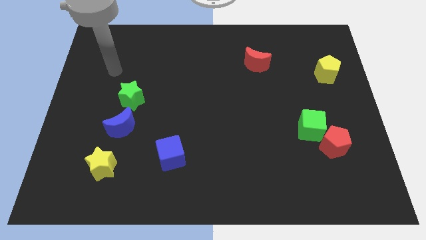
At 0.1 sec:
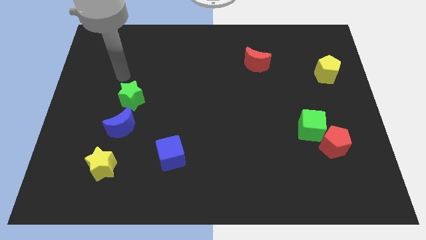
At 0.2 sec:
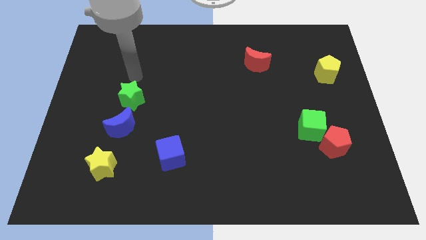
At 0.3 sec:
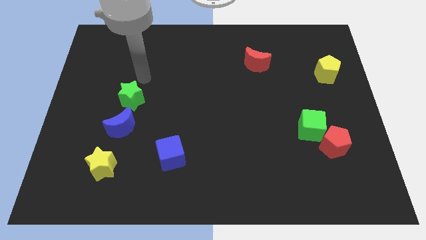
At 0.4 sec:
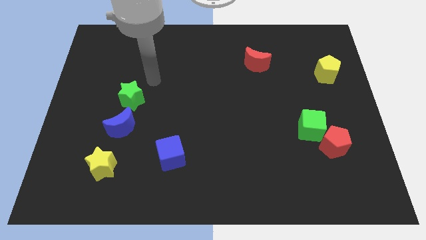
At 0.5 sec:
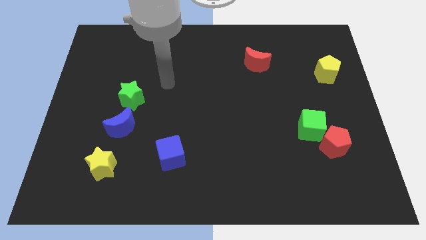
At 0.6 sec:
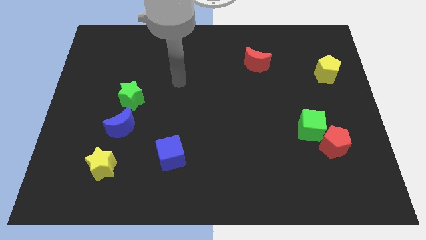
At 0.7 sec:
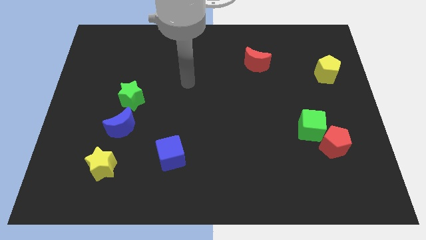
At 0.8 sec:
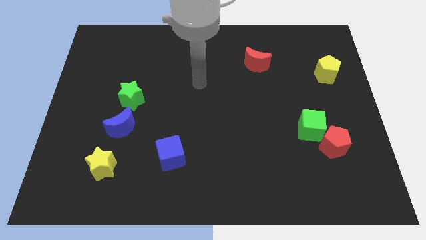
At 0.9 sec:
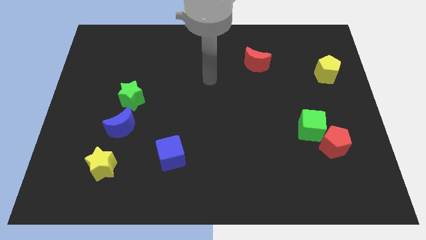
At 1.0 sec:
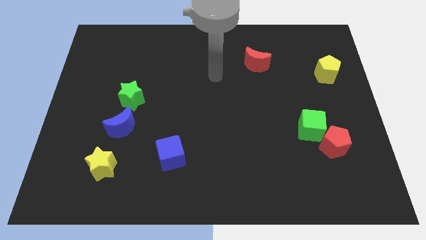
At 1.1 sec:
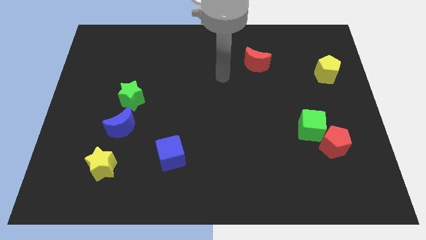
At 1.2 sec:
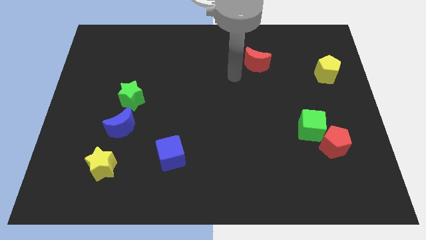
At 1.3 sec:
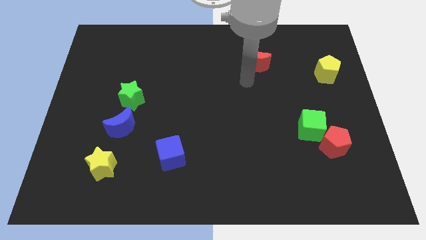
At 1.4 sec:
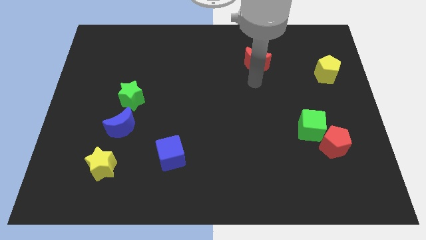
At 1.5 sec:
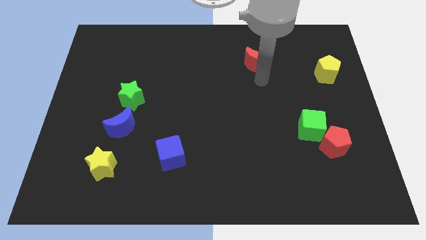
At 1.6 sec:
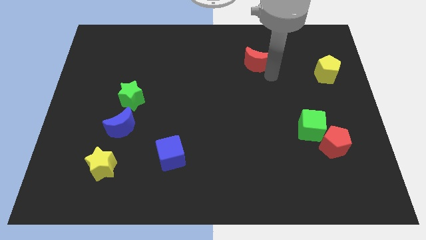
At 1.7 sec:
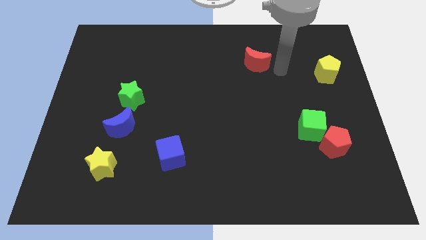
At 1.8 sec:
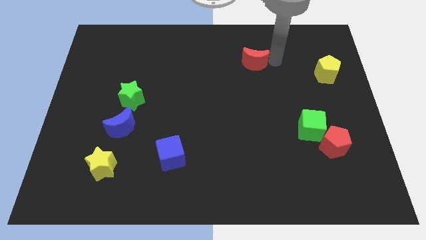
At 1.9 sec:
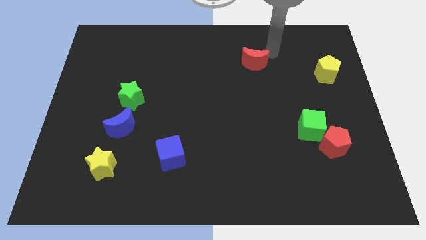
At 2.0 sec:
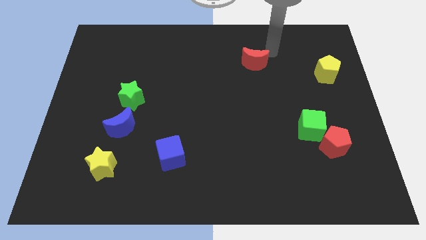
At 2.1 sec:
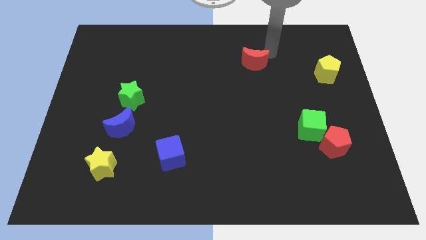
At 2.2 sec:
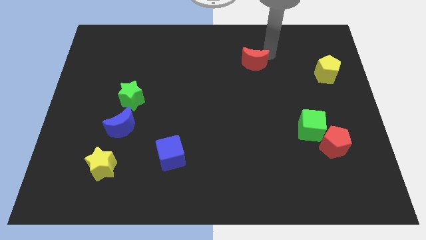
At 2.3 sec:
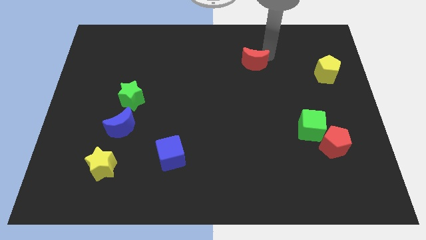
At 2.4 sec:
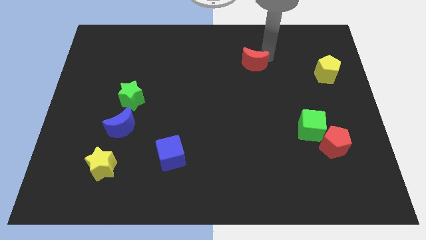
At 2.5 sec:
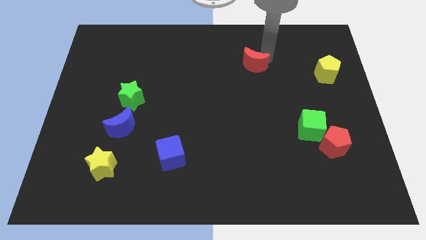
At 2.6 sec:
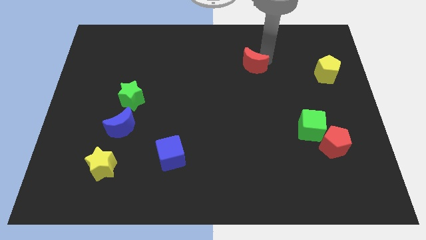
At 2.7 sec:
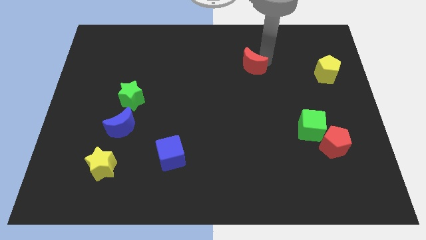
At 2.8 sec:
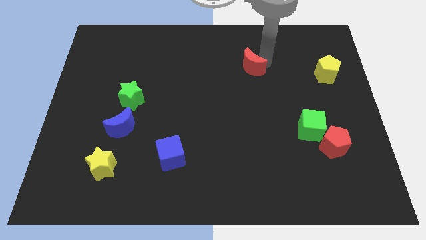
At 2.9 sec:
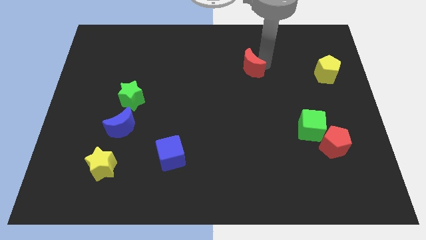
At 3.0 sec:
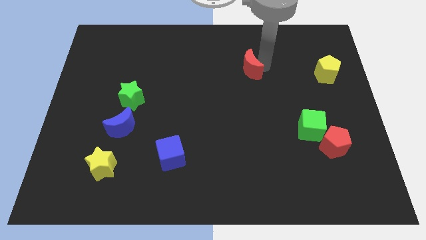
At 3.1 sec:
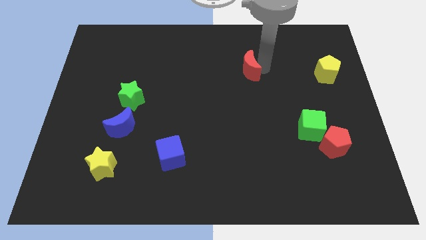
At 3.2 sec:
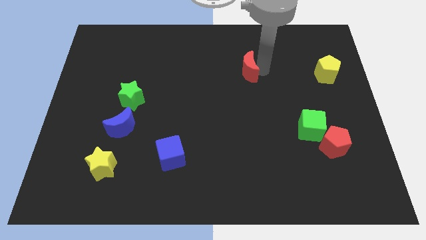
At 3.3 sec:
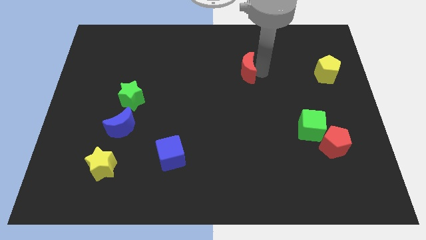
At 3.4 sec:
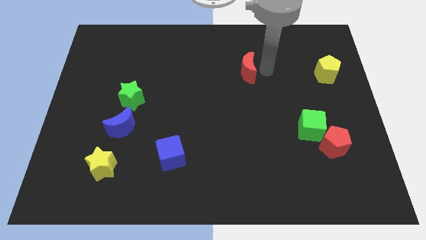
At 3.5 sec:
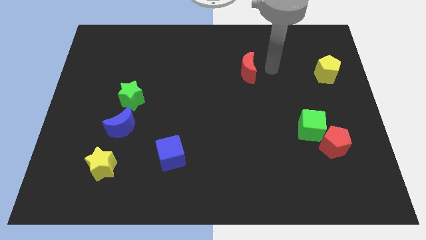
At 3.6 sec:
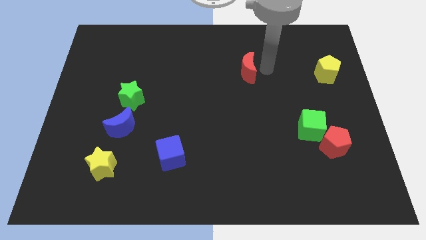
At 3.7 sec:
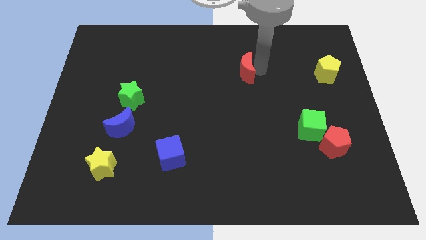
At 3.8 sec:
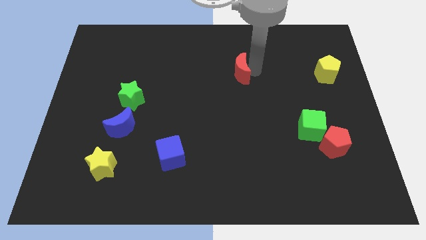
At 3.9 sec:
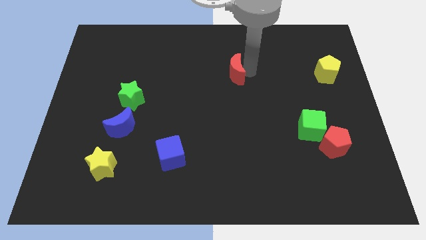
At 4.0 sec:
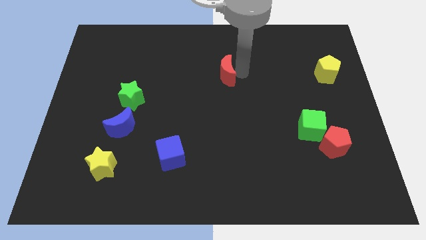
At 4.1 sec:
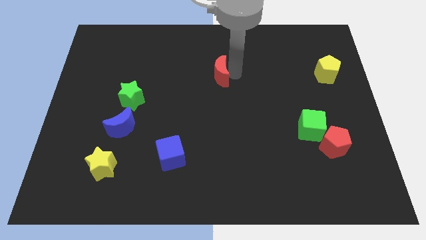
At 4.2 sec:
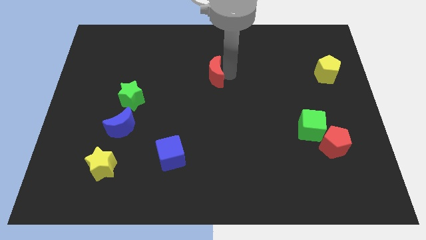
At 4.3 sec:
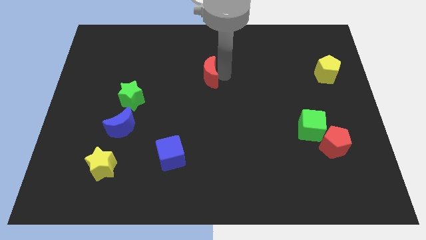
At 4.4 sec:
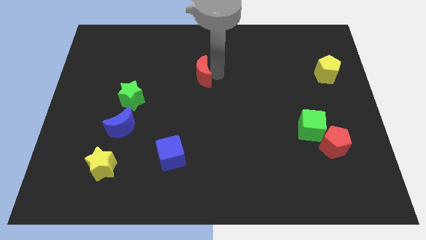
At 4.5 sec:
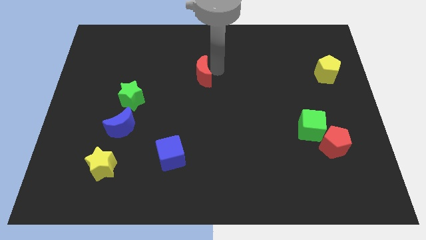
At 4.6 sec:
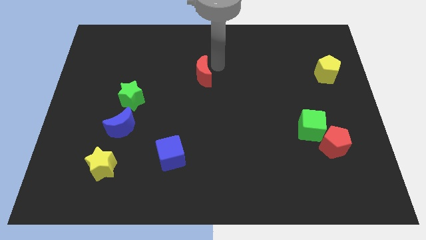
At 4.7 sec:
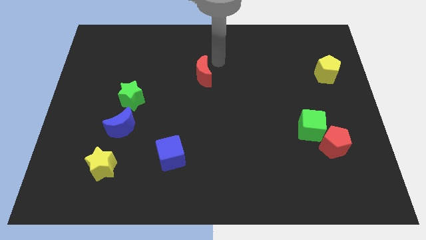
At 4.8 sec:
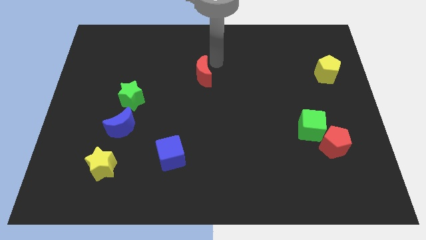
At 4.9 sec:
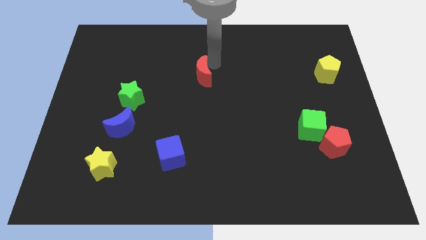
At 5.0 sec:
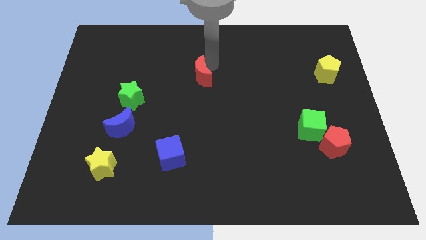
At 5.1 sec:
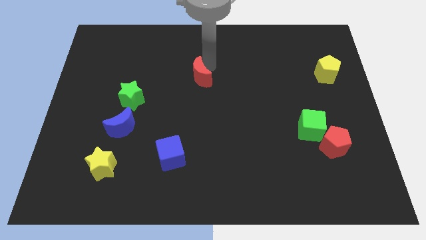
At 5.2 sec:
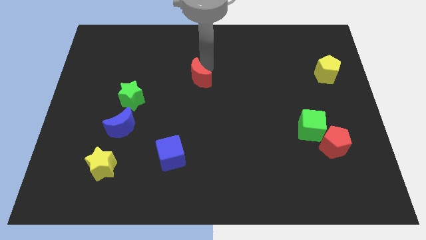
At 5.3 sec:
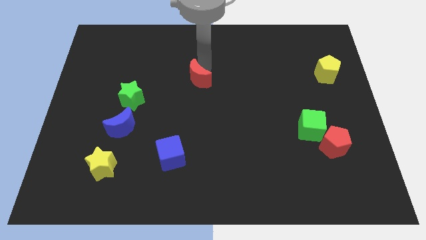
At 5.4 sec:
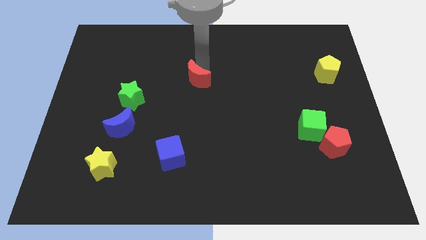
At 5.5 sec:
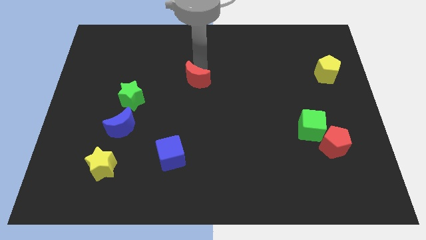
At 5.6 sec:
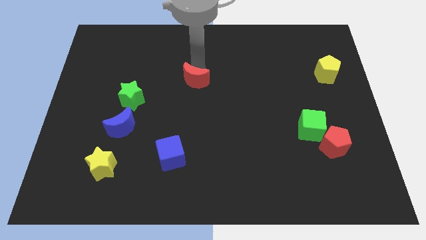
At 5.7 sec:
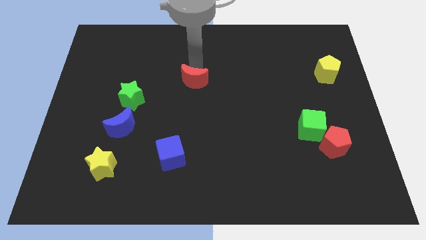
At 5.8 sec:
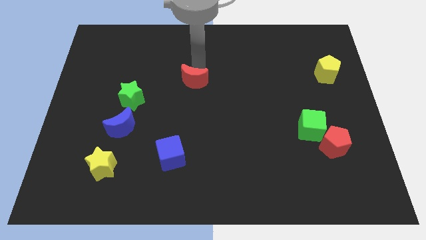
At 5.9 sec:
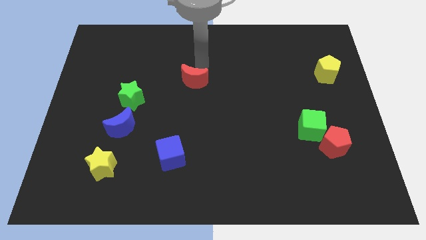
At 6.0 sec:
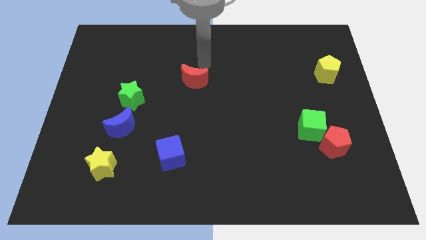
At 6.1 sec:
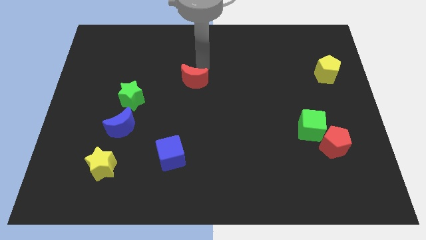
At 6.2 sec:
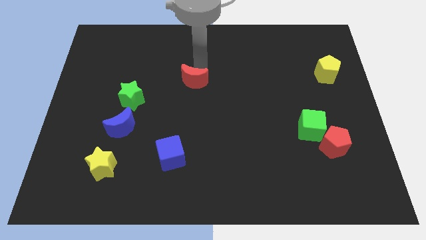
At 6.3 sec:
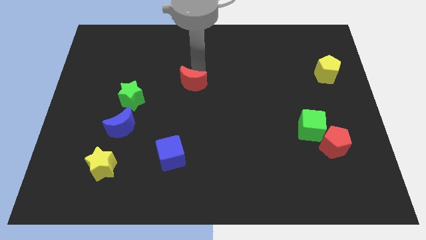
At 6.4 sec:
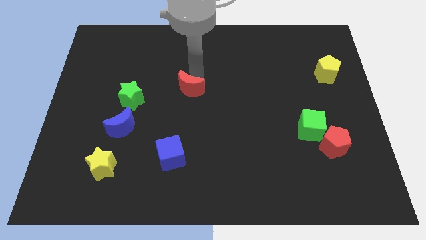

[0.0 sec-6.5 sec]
move the red moon right of the green star

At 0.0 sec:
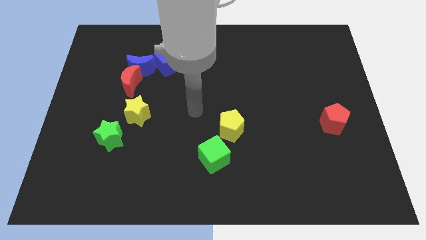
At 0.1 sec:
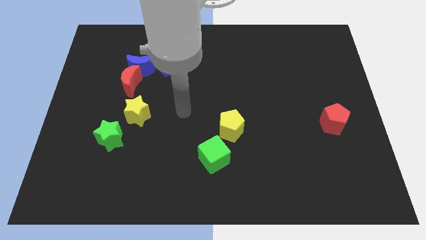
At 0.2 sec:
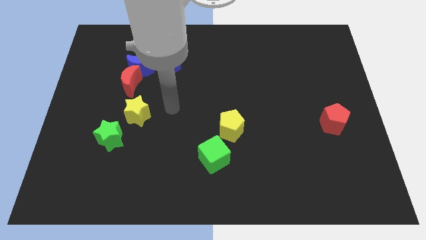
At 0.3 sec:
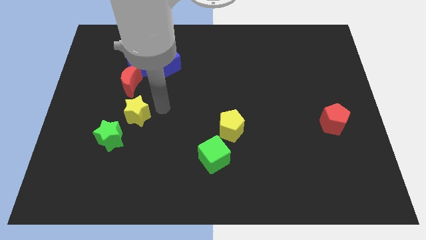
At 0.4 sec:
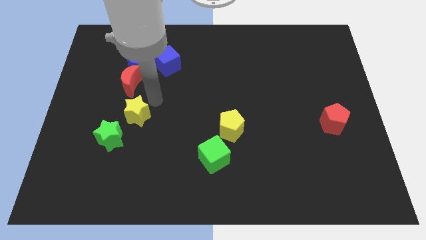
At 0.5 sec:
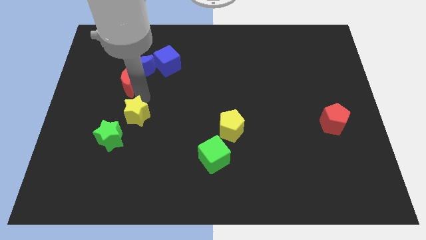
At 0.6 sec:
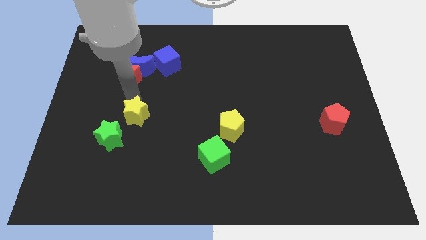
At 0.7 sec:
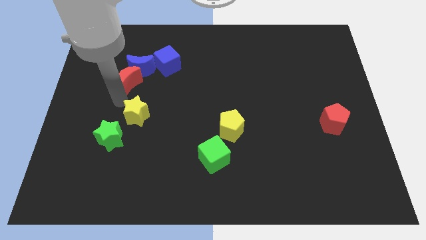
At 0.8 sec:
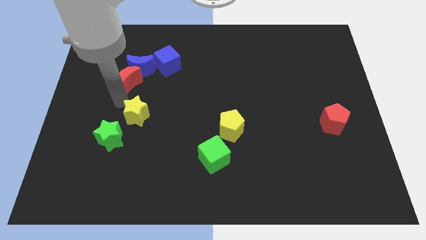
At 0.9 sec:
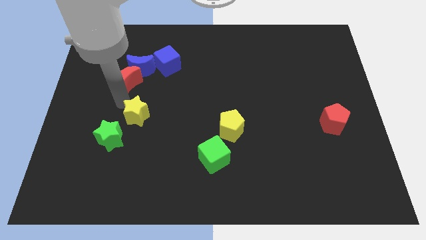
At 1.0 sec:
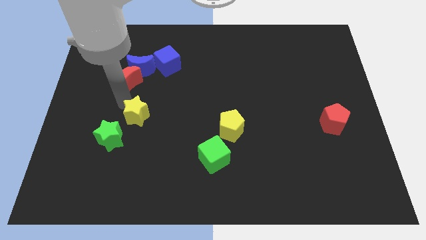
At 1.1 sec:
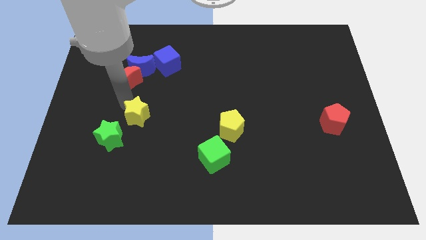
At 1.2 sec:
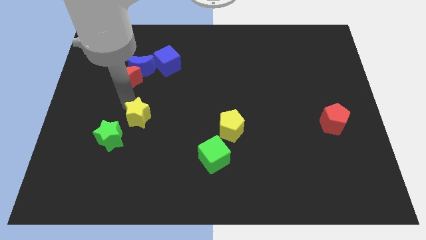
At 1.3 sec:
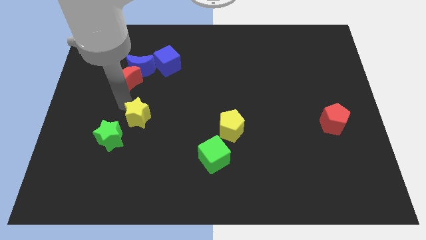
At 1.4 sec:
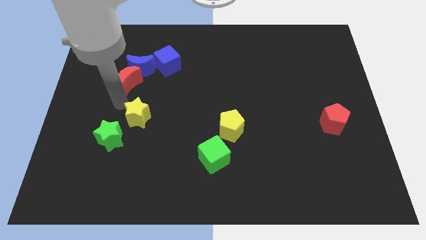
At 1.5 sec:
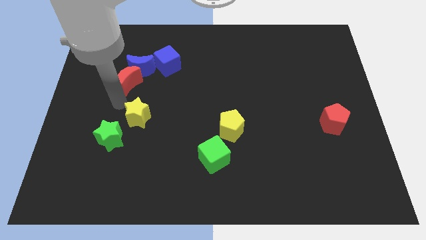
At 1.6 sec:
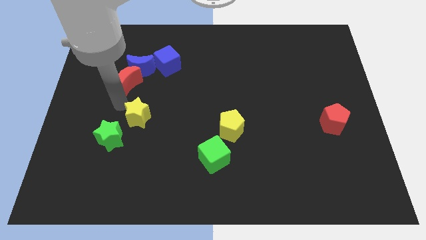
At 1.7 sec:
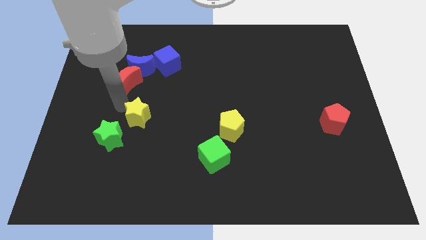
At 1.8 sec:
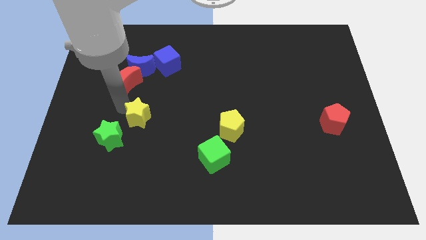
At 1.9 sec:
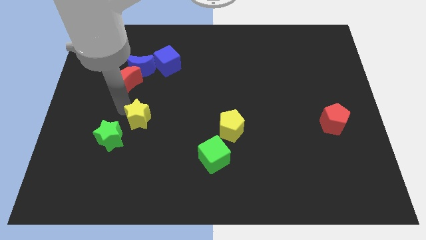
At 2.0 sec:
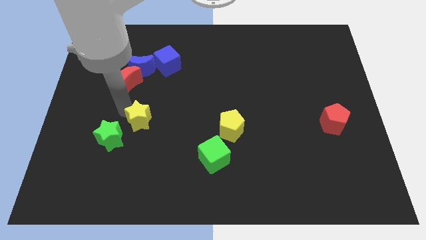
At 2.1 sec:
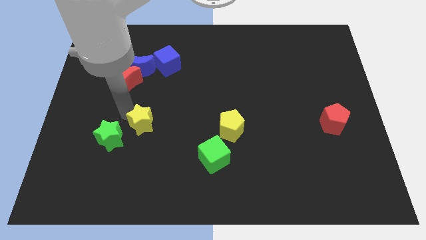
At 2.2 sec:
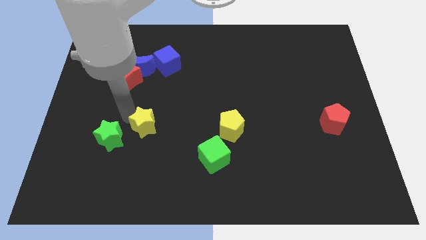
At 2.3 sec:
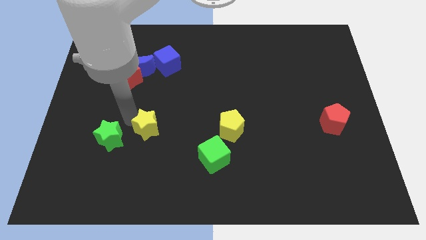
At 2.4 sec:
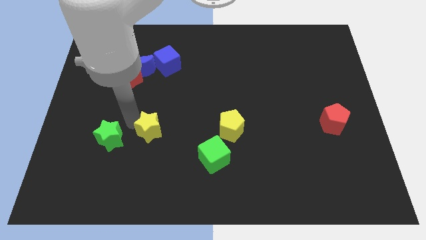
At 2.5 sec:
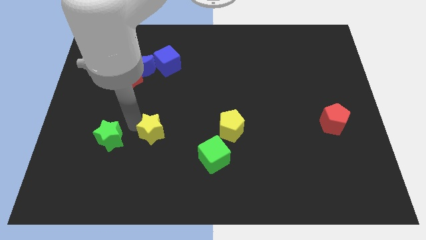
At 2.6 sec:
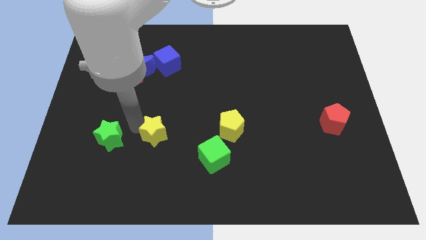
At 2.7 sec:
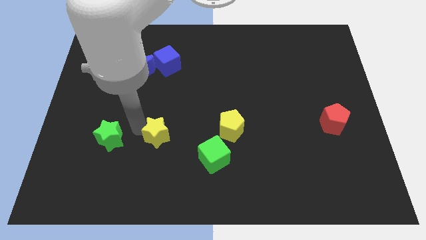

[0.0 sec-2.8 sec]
move the yellow star left of the yellow pentagon
